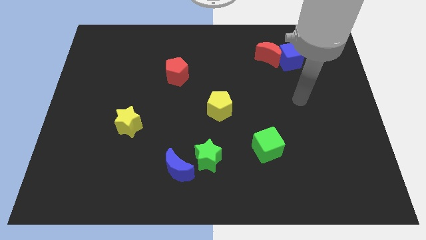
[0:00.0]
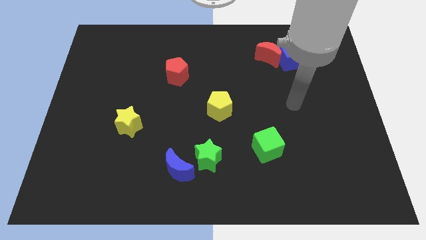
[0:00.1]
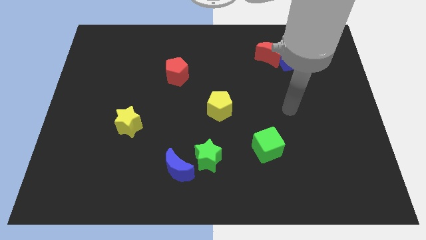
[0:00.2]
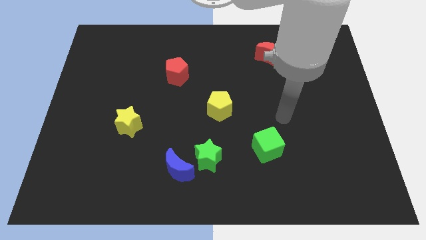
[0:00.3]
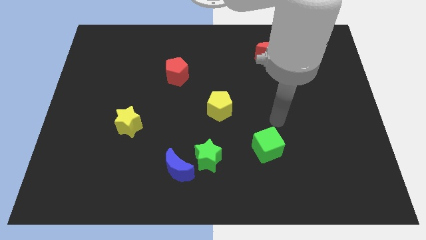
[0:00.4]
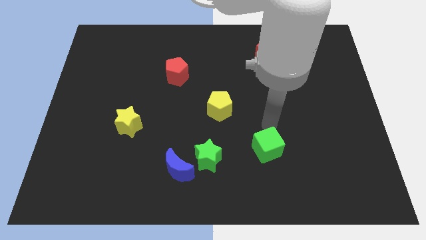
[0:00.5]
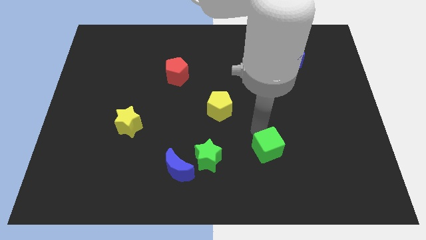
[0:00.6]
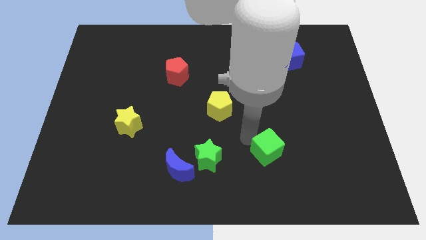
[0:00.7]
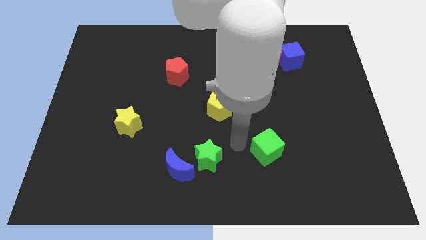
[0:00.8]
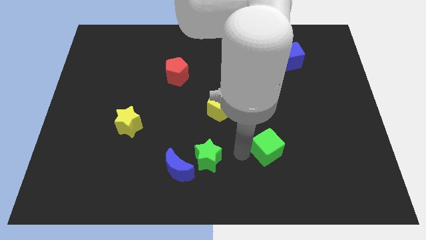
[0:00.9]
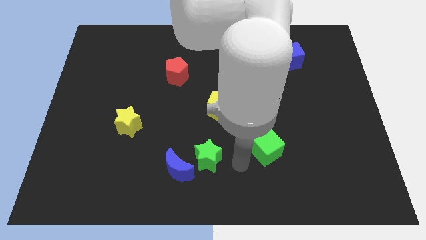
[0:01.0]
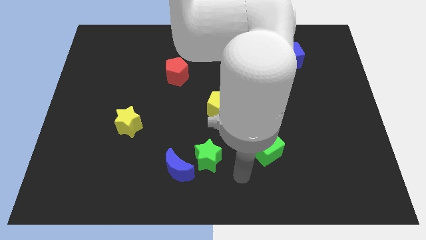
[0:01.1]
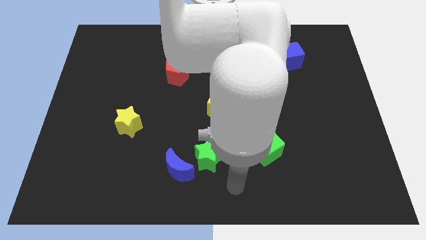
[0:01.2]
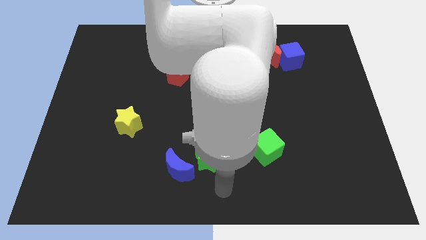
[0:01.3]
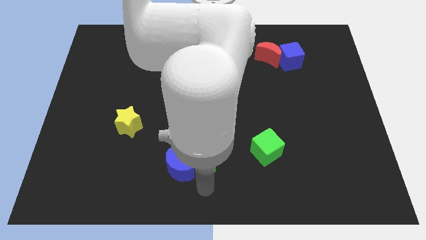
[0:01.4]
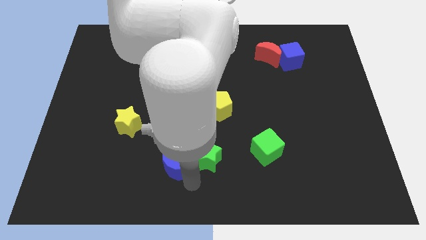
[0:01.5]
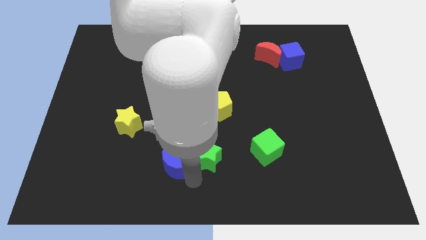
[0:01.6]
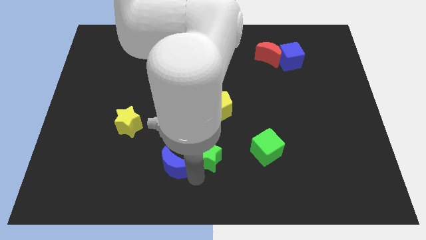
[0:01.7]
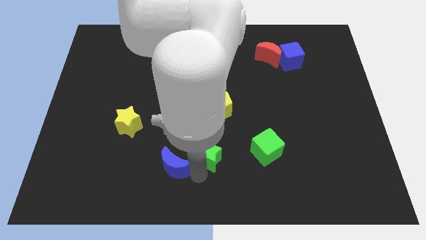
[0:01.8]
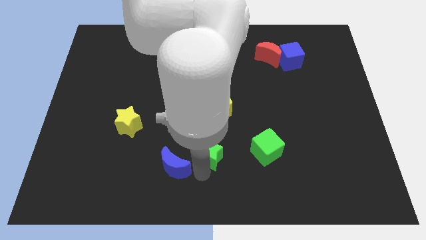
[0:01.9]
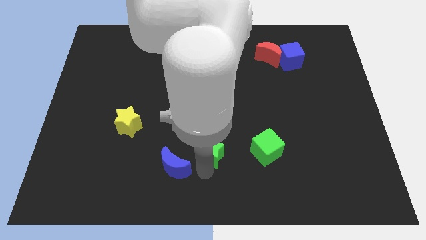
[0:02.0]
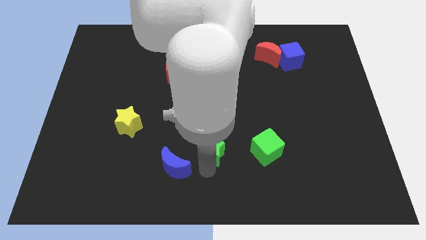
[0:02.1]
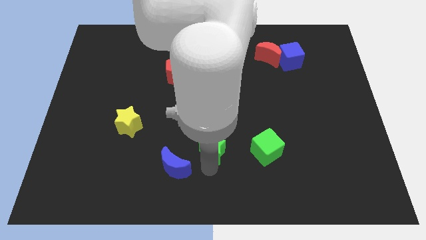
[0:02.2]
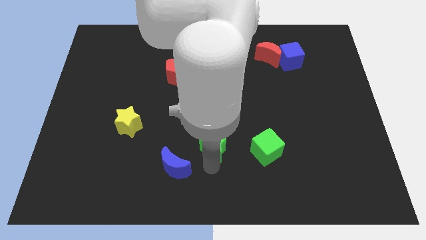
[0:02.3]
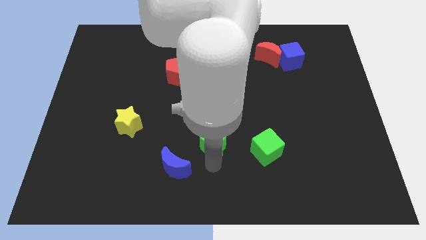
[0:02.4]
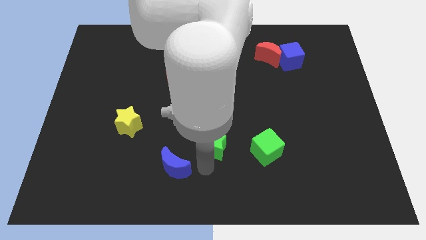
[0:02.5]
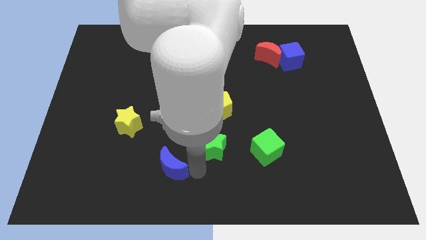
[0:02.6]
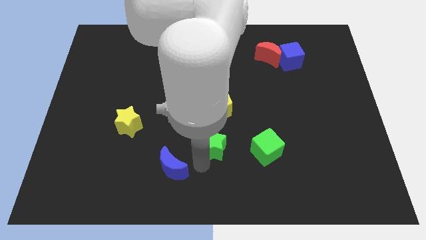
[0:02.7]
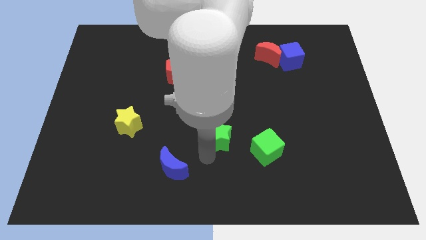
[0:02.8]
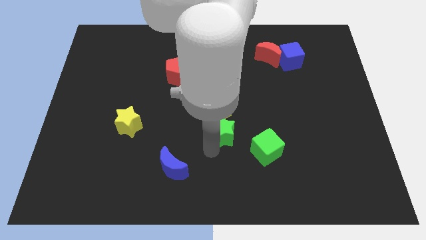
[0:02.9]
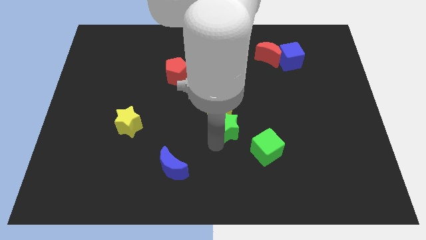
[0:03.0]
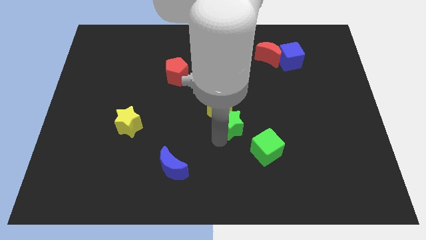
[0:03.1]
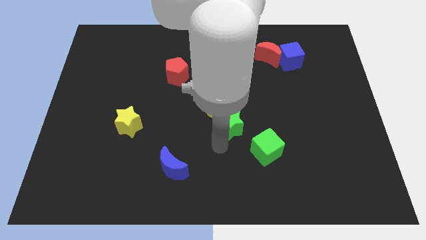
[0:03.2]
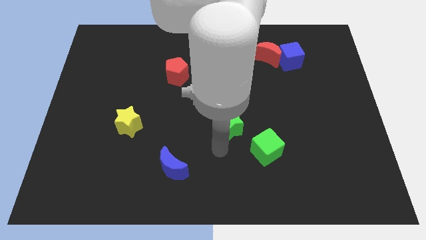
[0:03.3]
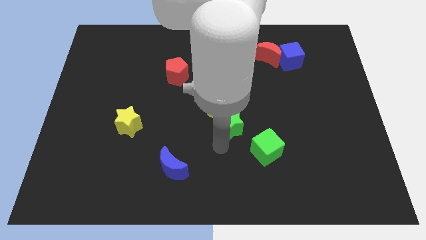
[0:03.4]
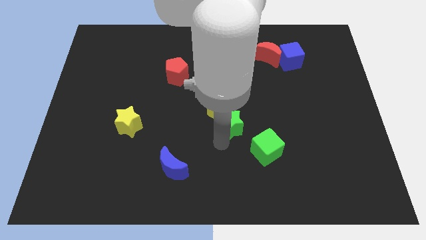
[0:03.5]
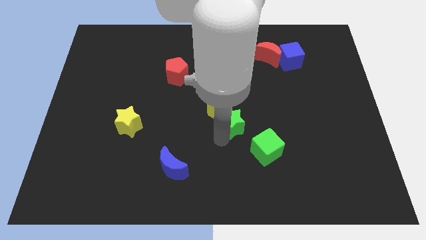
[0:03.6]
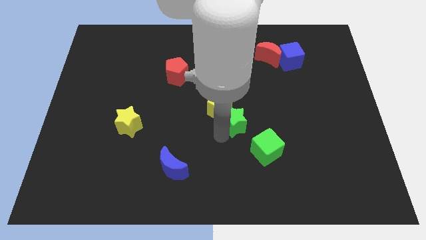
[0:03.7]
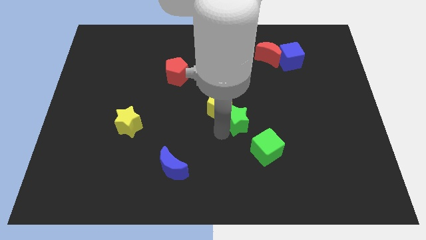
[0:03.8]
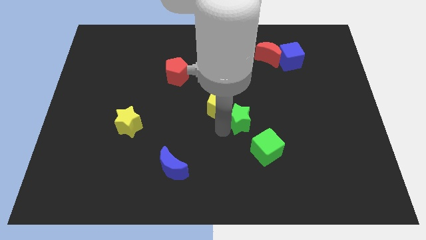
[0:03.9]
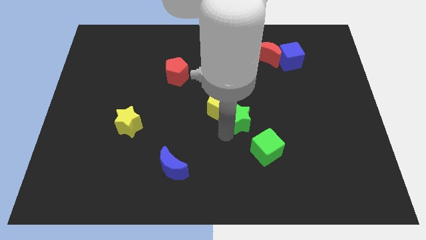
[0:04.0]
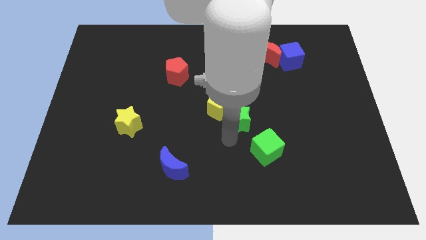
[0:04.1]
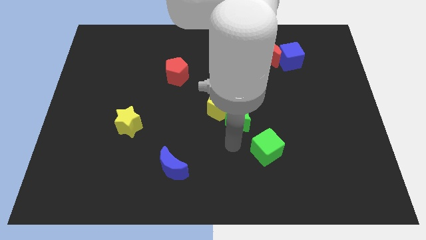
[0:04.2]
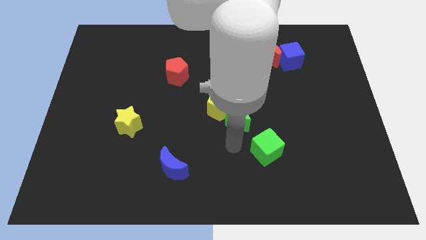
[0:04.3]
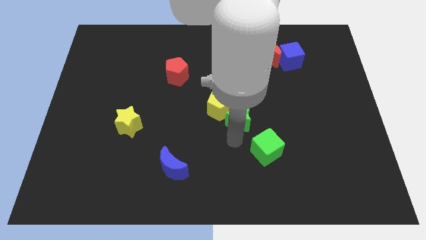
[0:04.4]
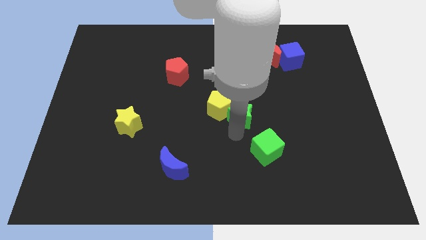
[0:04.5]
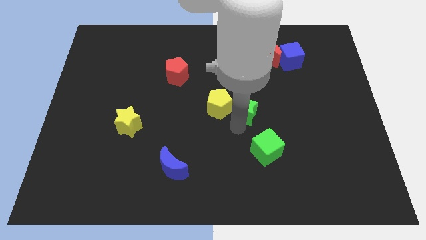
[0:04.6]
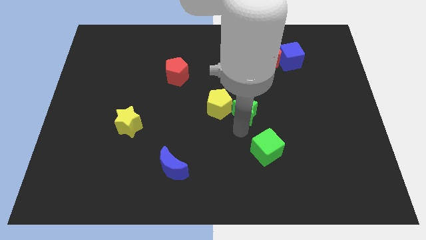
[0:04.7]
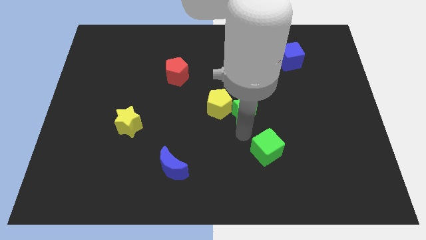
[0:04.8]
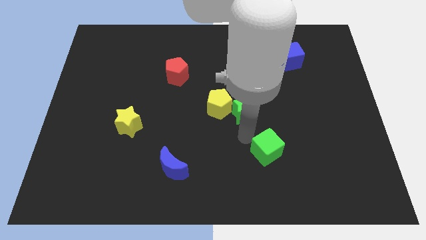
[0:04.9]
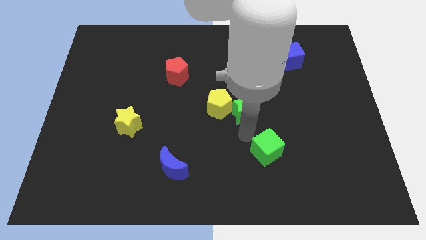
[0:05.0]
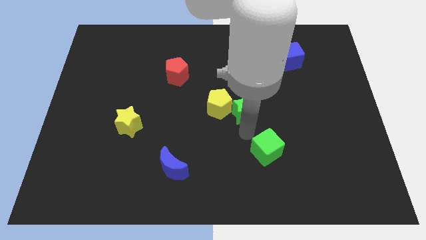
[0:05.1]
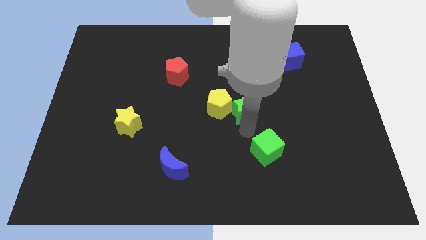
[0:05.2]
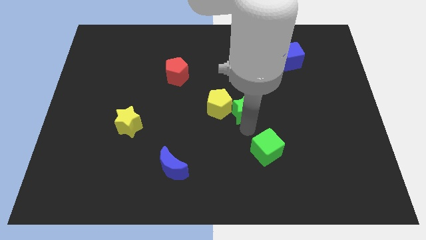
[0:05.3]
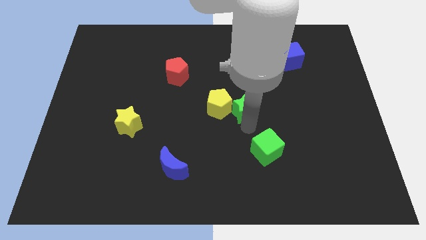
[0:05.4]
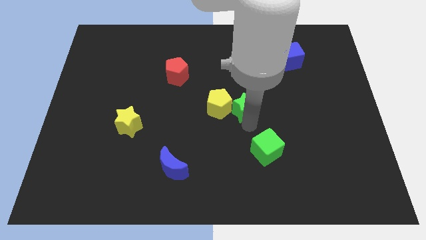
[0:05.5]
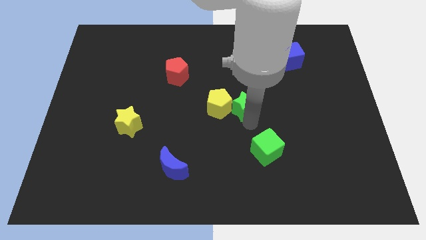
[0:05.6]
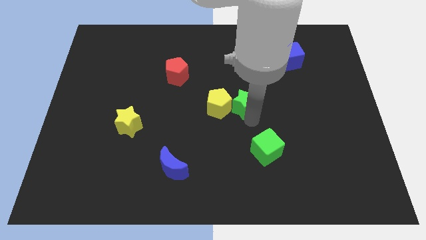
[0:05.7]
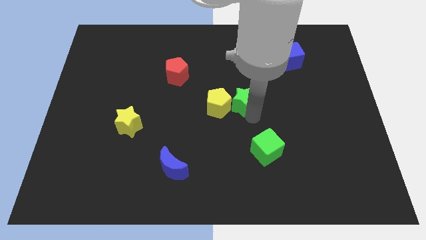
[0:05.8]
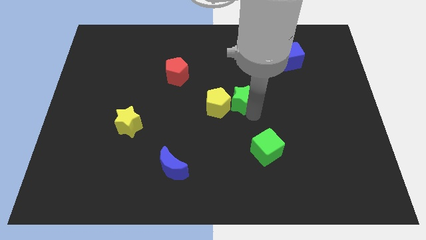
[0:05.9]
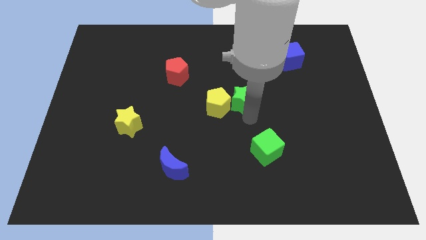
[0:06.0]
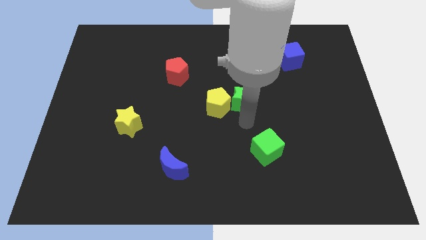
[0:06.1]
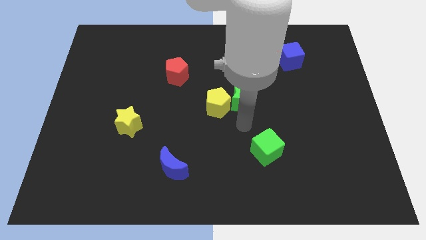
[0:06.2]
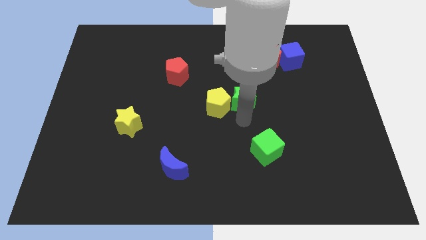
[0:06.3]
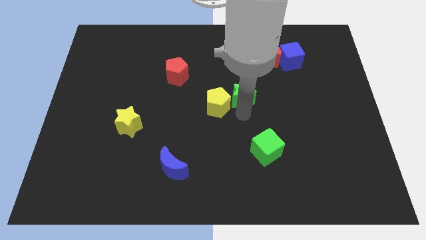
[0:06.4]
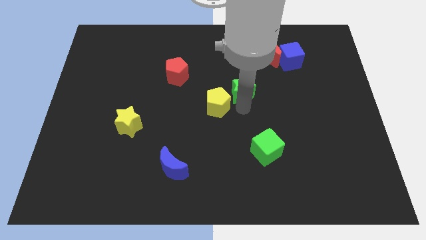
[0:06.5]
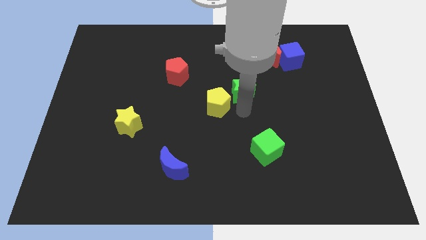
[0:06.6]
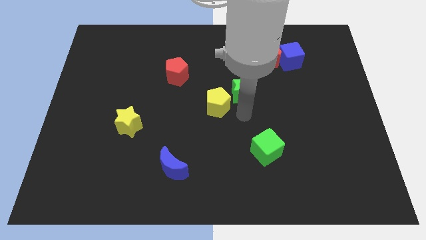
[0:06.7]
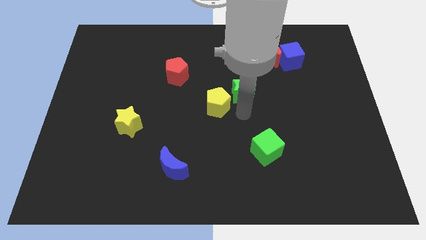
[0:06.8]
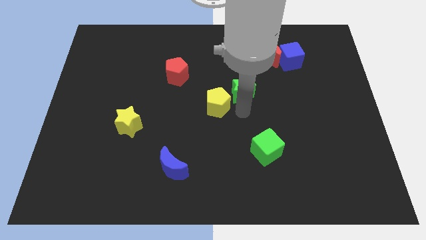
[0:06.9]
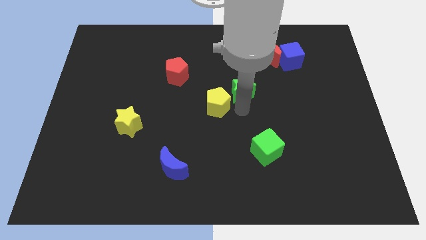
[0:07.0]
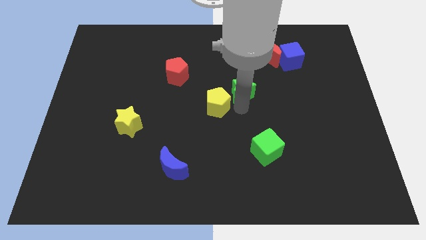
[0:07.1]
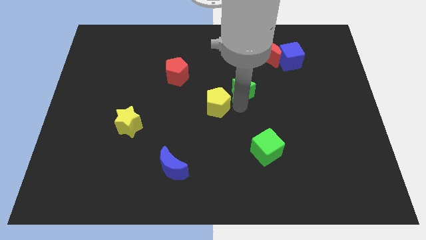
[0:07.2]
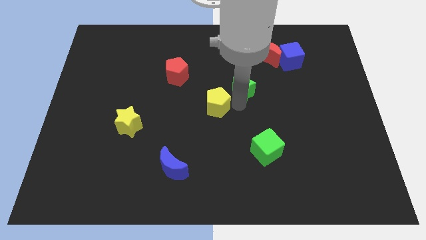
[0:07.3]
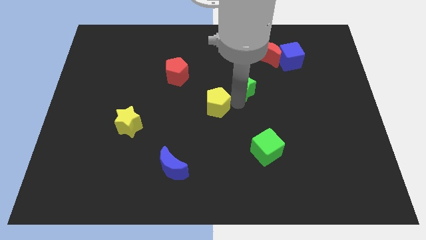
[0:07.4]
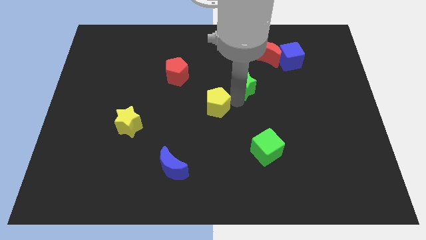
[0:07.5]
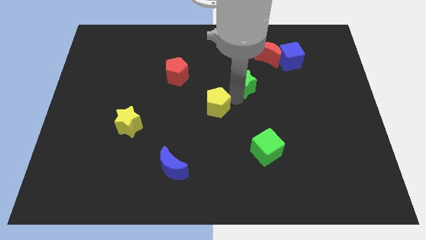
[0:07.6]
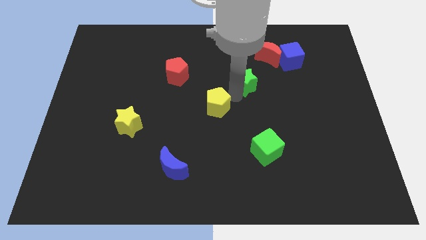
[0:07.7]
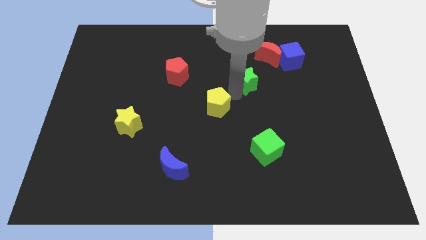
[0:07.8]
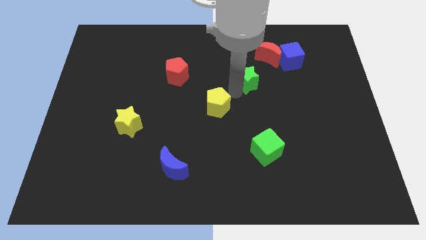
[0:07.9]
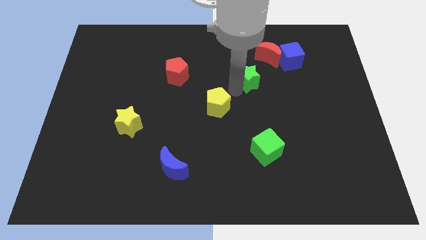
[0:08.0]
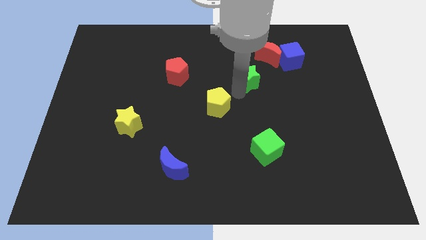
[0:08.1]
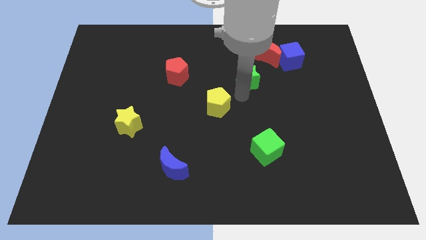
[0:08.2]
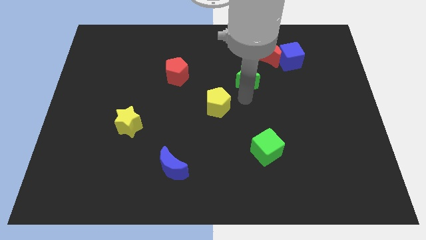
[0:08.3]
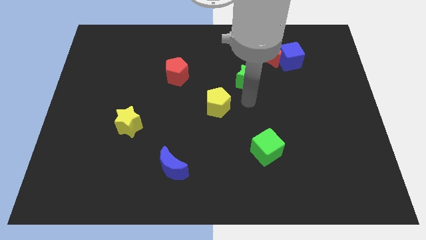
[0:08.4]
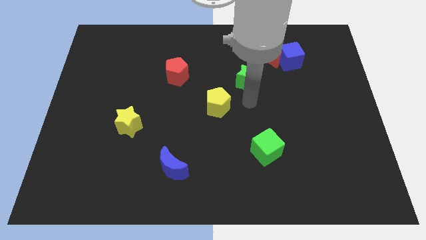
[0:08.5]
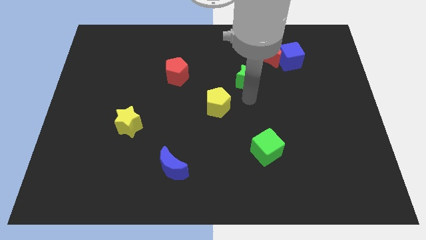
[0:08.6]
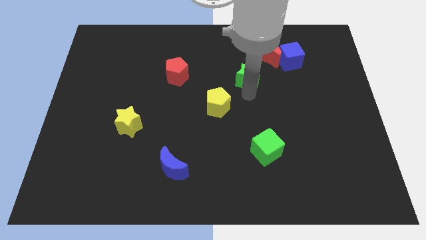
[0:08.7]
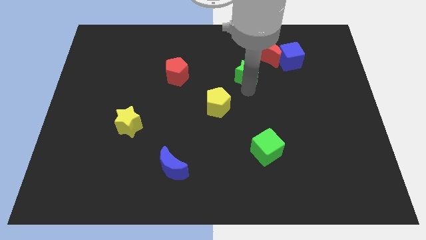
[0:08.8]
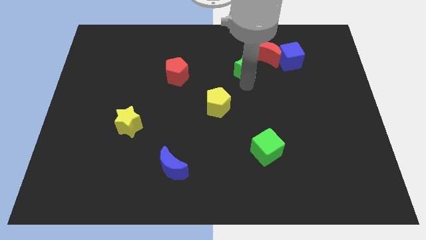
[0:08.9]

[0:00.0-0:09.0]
move the green star to the left of the blue cube
